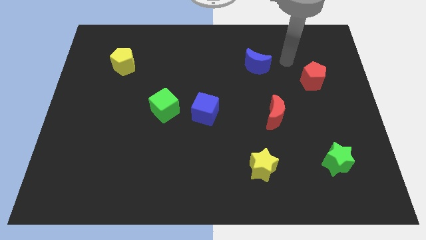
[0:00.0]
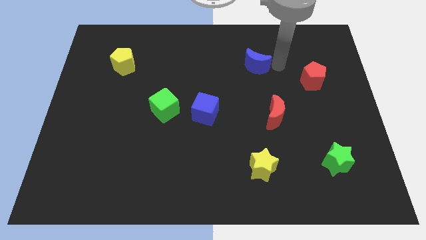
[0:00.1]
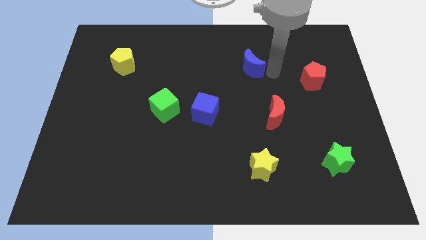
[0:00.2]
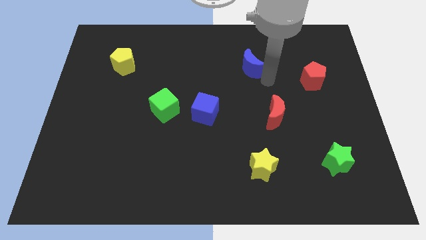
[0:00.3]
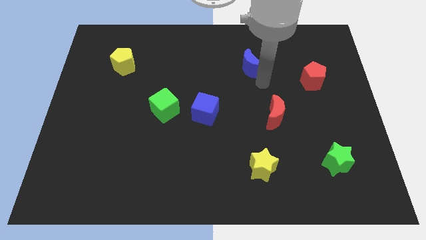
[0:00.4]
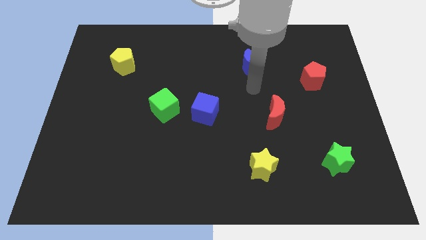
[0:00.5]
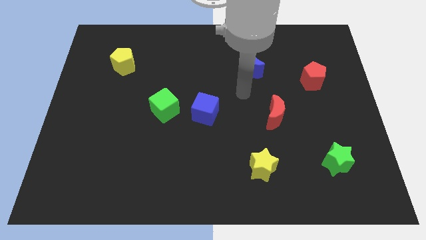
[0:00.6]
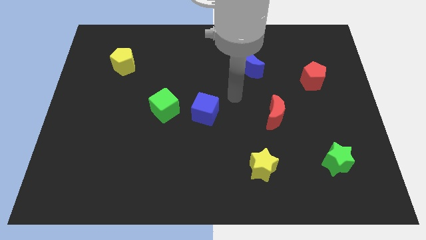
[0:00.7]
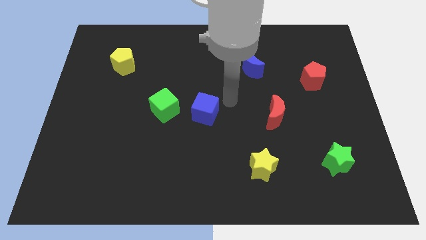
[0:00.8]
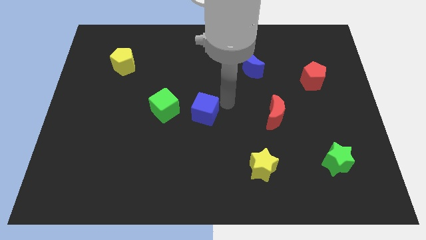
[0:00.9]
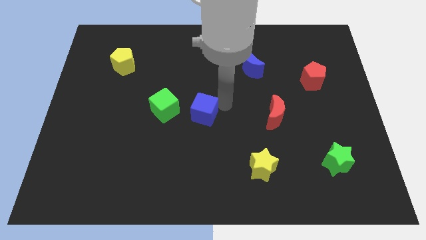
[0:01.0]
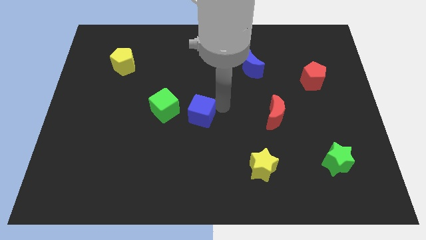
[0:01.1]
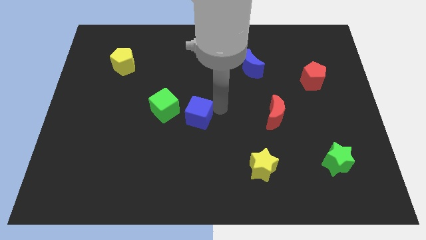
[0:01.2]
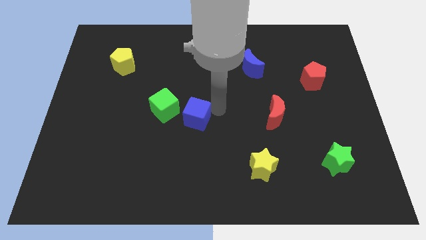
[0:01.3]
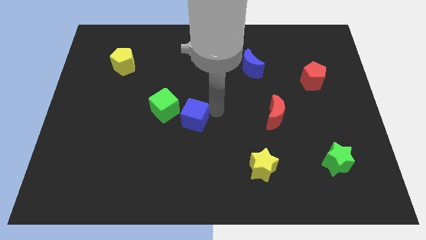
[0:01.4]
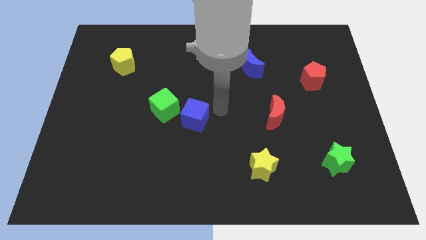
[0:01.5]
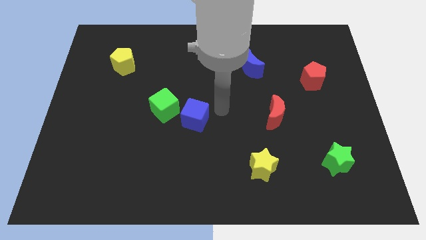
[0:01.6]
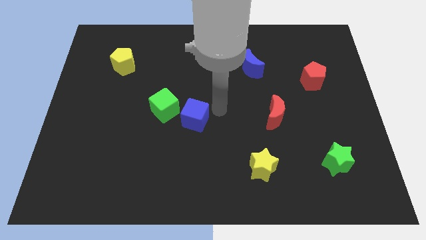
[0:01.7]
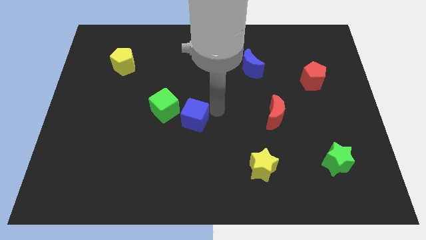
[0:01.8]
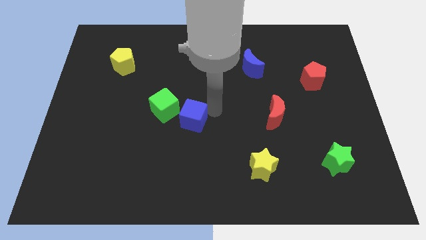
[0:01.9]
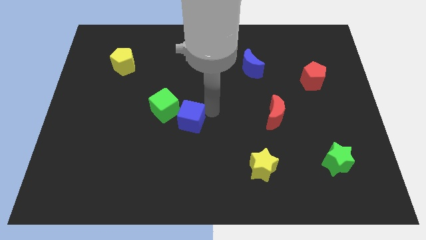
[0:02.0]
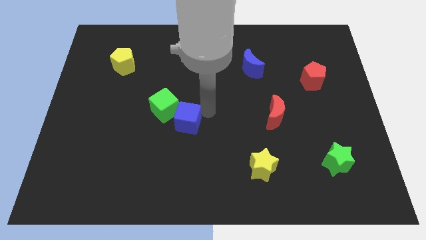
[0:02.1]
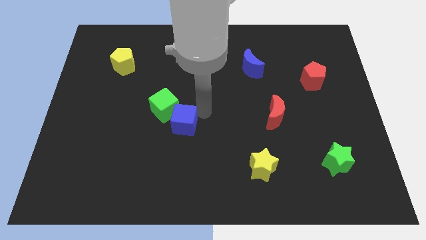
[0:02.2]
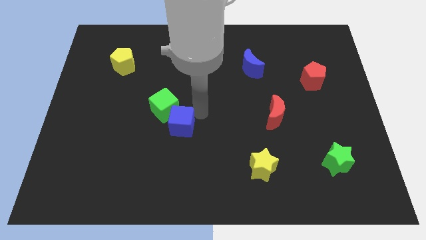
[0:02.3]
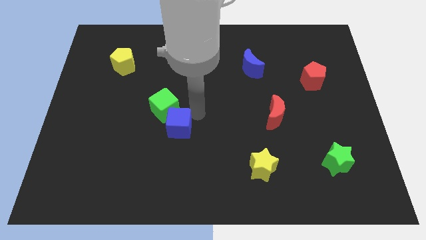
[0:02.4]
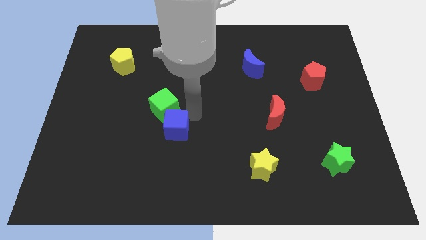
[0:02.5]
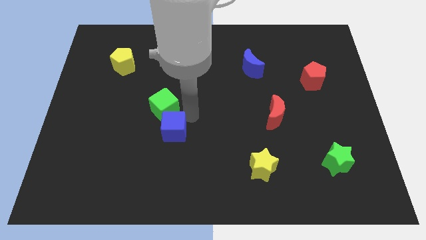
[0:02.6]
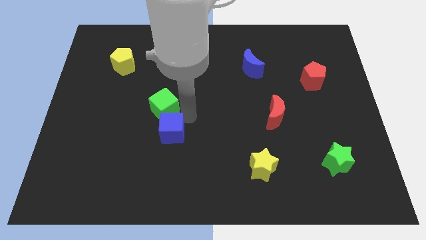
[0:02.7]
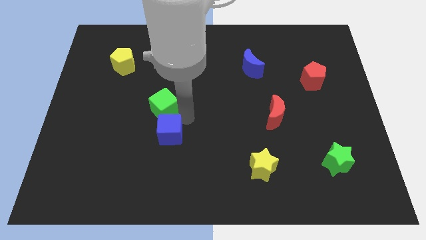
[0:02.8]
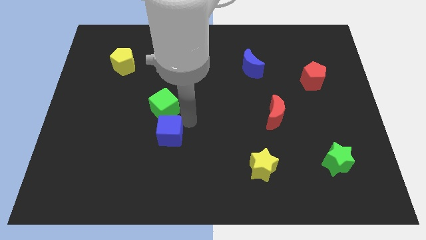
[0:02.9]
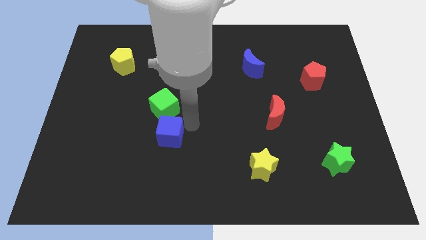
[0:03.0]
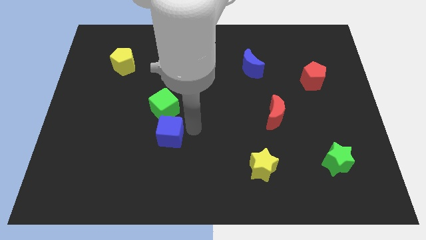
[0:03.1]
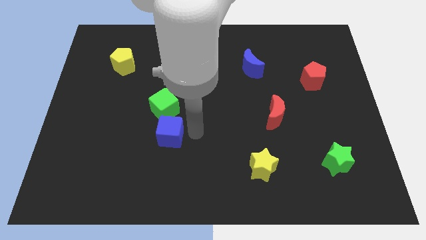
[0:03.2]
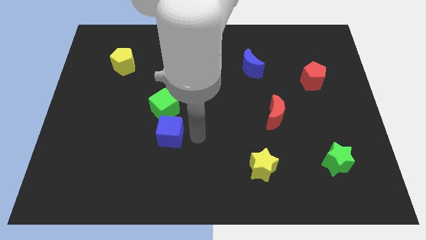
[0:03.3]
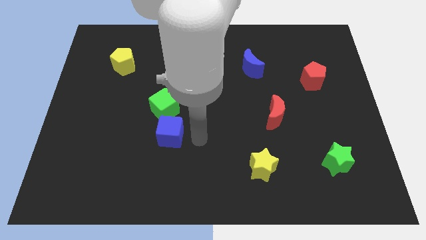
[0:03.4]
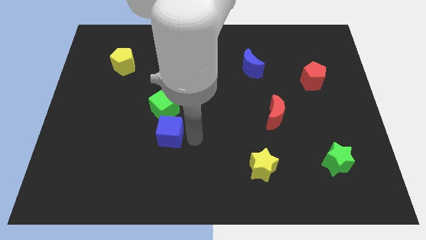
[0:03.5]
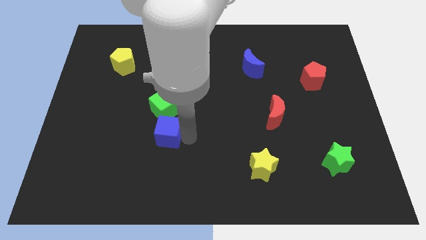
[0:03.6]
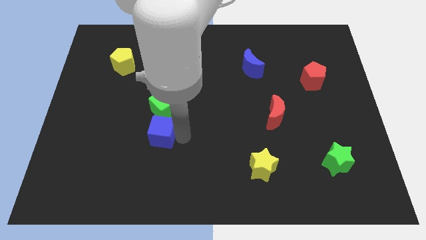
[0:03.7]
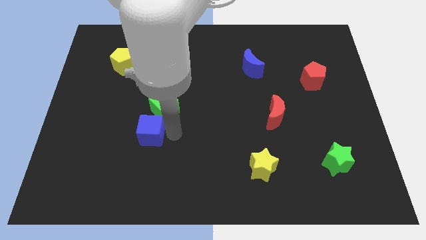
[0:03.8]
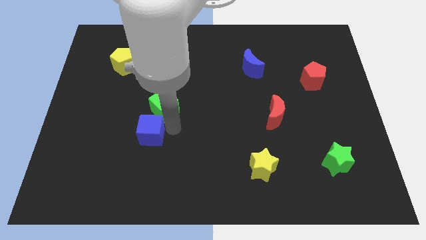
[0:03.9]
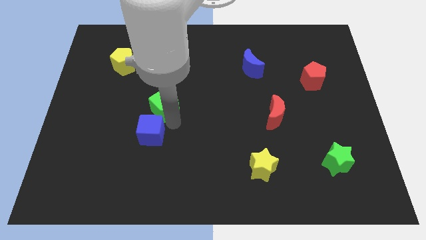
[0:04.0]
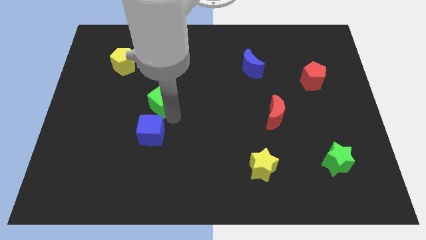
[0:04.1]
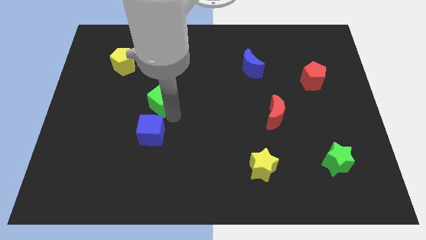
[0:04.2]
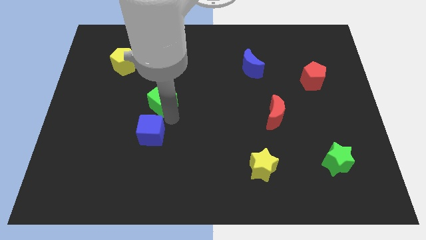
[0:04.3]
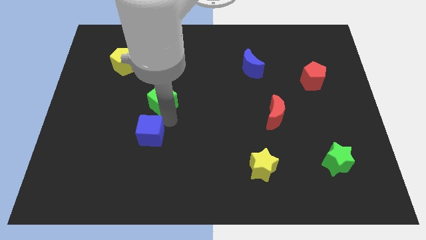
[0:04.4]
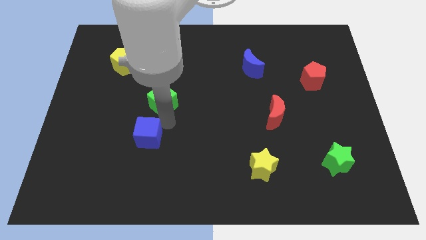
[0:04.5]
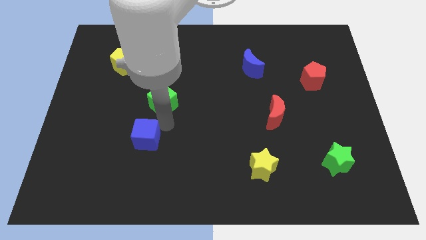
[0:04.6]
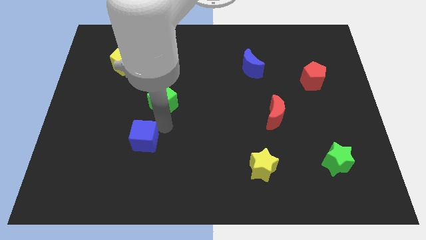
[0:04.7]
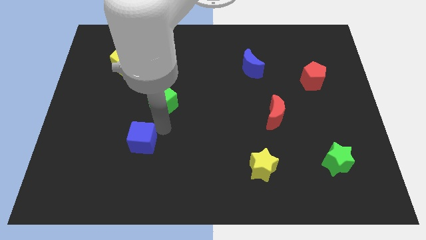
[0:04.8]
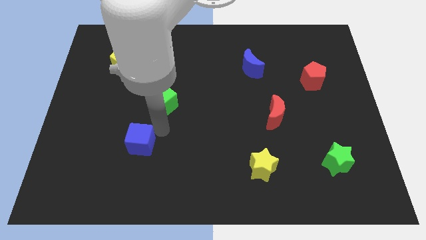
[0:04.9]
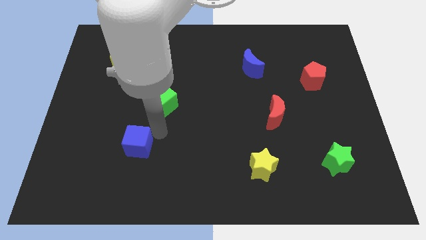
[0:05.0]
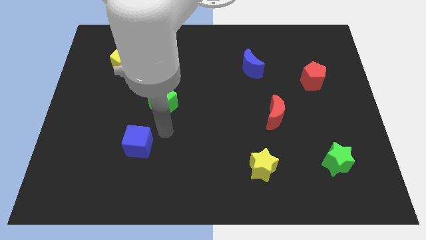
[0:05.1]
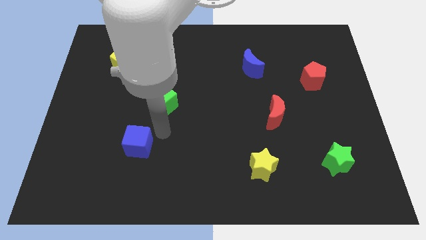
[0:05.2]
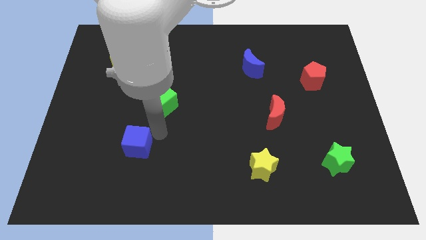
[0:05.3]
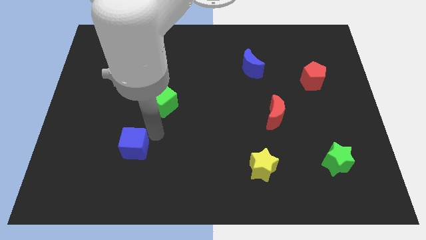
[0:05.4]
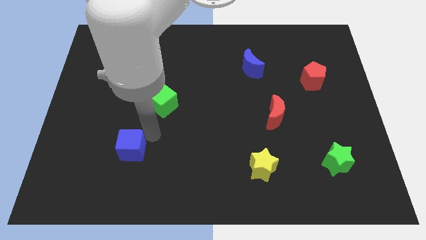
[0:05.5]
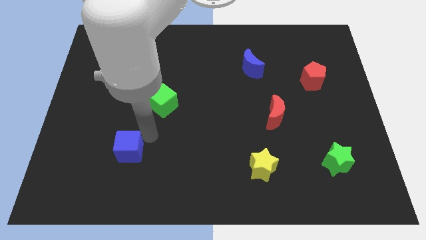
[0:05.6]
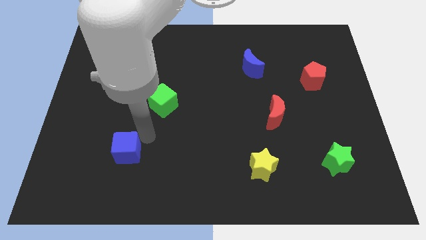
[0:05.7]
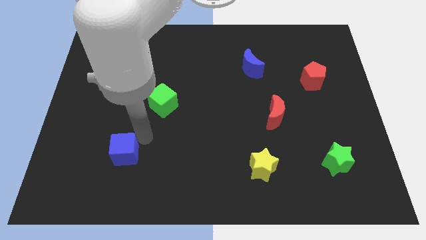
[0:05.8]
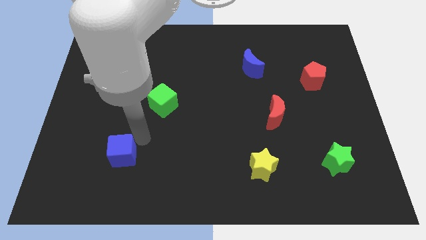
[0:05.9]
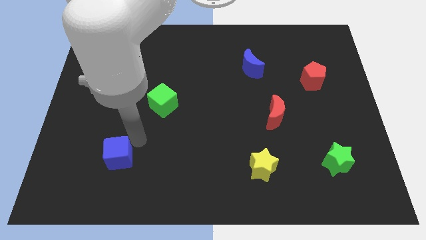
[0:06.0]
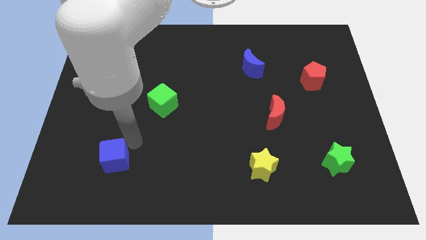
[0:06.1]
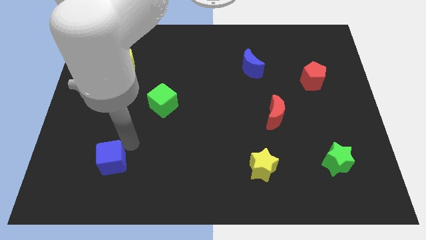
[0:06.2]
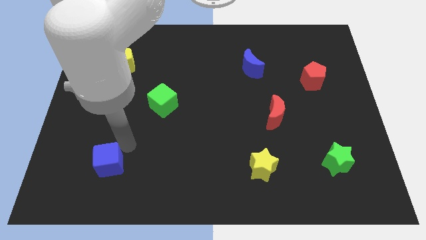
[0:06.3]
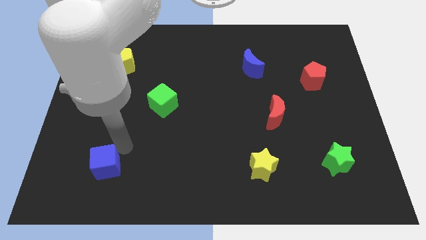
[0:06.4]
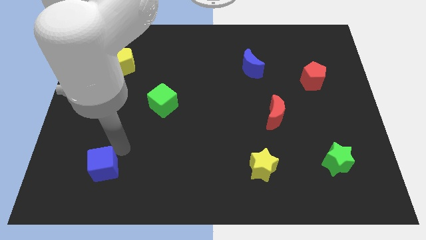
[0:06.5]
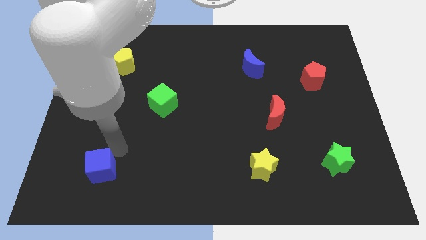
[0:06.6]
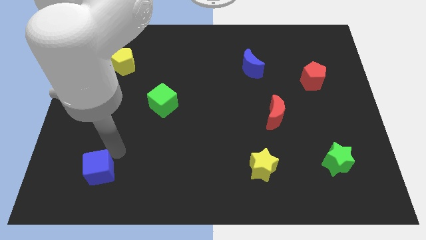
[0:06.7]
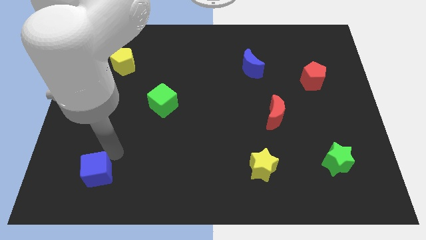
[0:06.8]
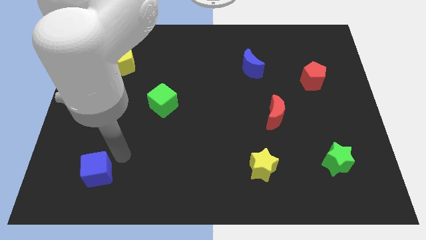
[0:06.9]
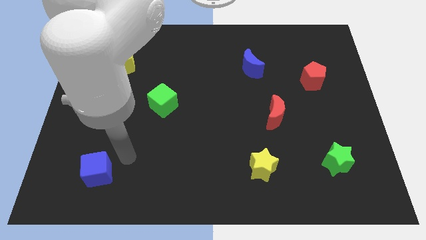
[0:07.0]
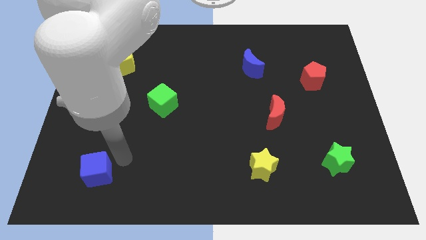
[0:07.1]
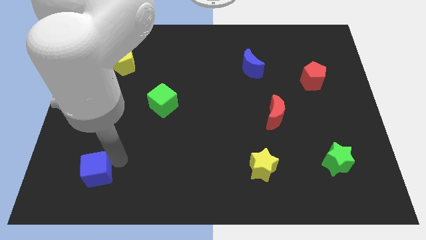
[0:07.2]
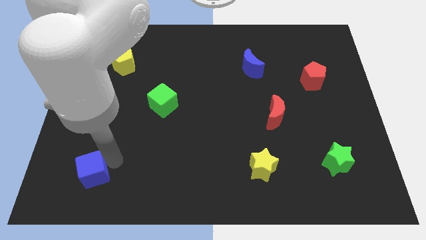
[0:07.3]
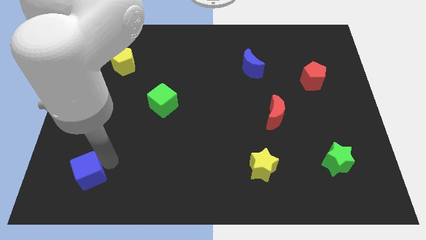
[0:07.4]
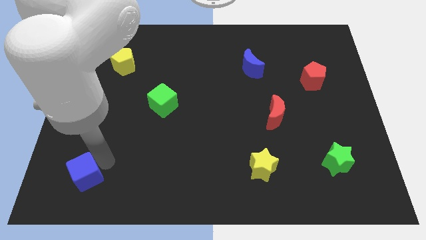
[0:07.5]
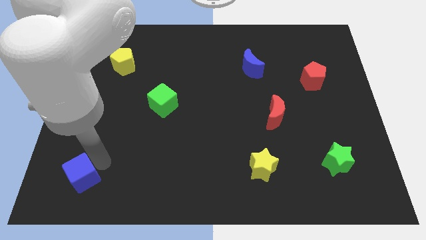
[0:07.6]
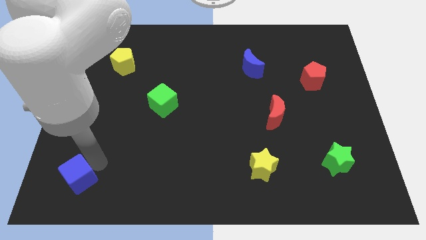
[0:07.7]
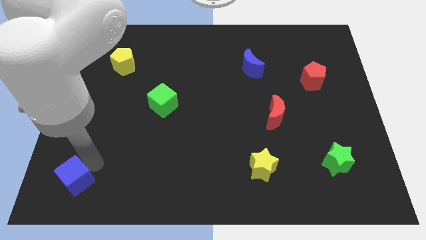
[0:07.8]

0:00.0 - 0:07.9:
put the blue cube to the bottom left corner
